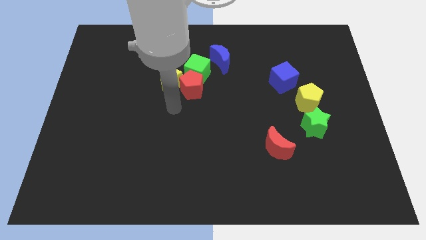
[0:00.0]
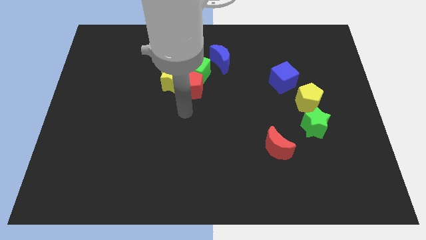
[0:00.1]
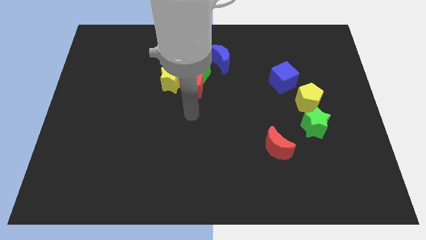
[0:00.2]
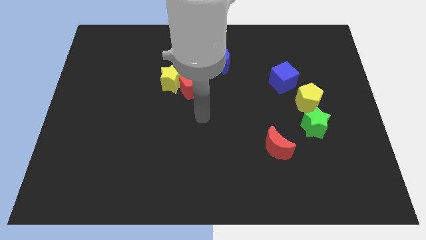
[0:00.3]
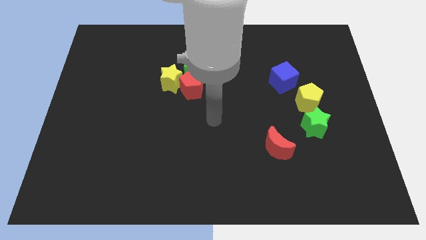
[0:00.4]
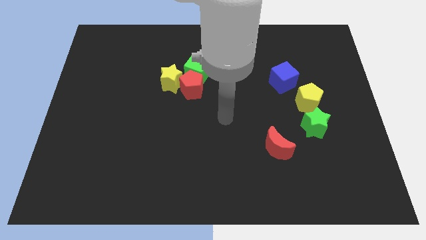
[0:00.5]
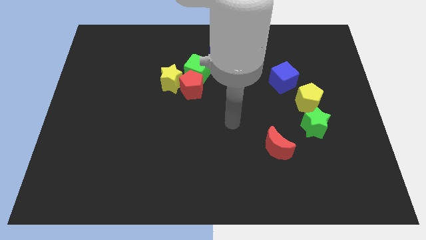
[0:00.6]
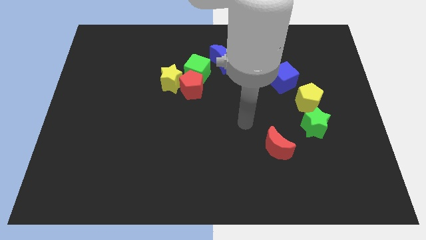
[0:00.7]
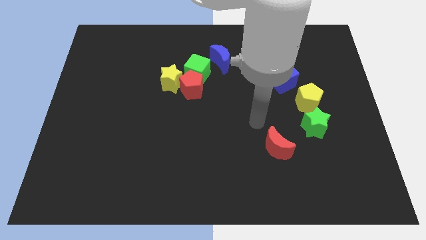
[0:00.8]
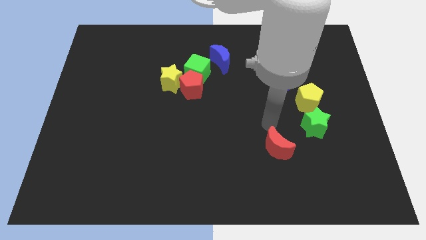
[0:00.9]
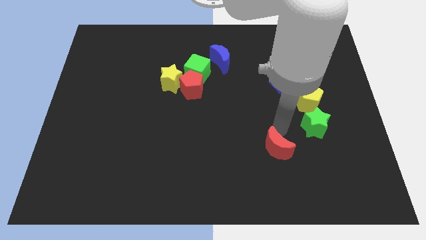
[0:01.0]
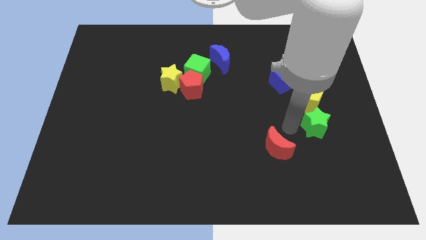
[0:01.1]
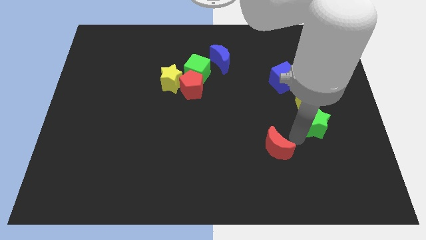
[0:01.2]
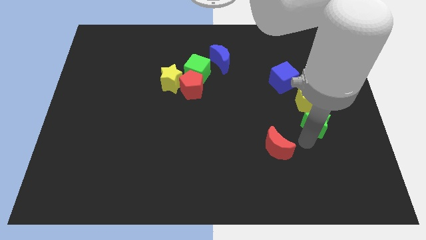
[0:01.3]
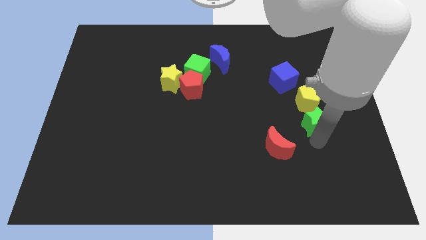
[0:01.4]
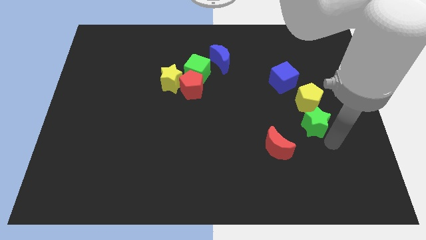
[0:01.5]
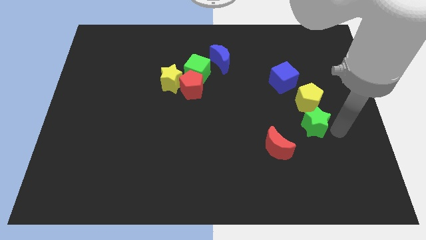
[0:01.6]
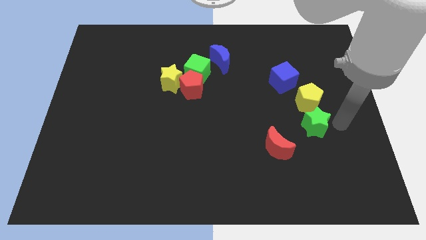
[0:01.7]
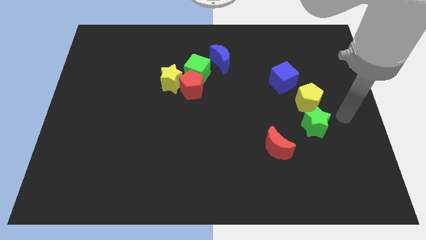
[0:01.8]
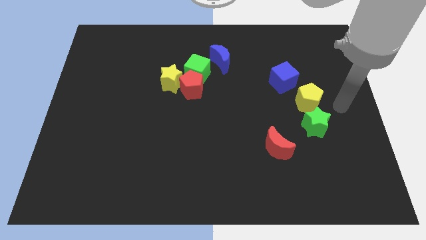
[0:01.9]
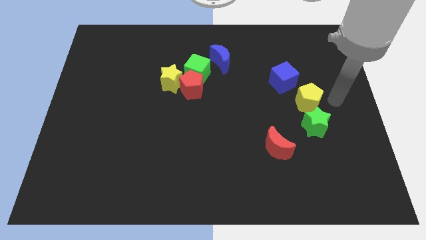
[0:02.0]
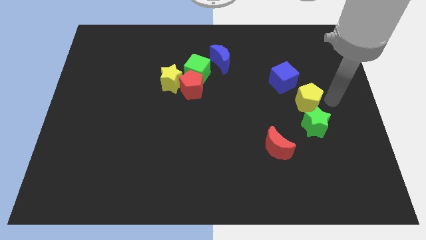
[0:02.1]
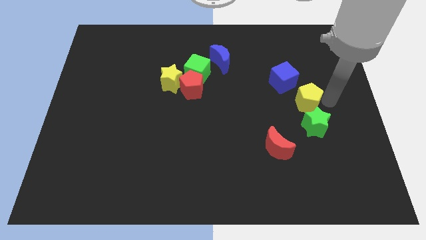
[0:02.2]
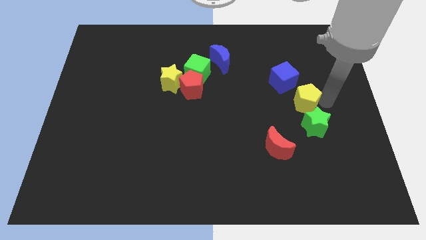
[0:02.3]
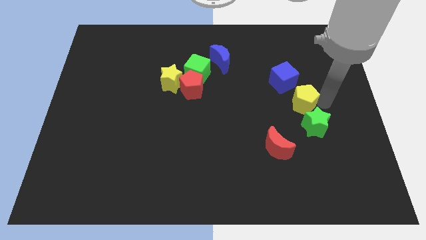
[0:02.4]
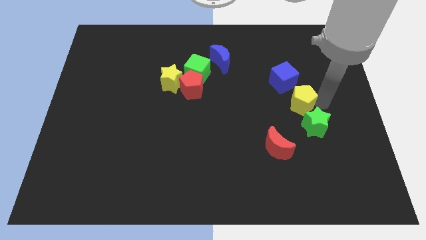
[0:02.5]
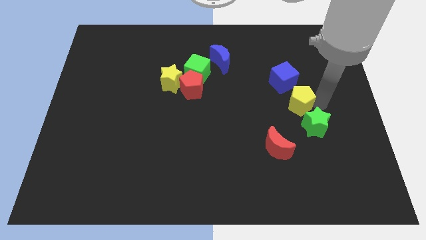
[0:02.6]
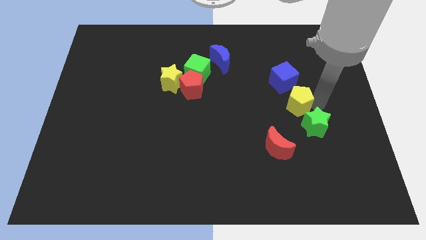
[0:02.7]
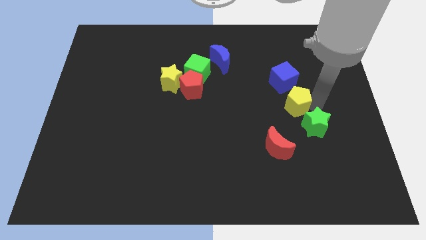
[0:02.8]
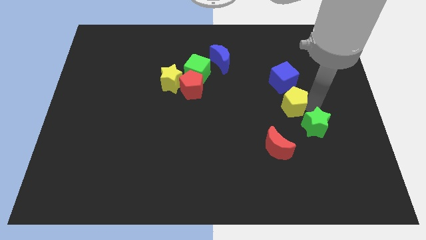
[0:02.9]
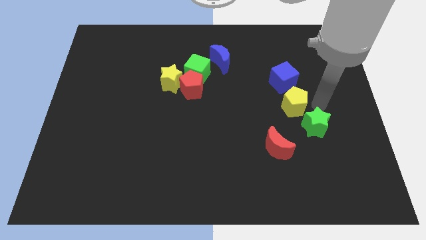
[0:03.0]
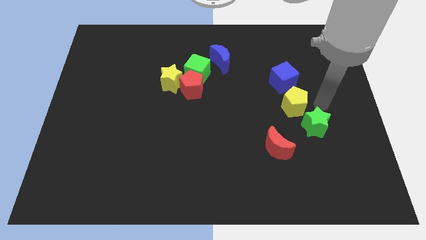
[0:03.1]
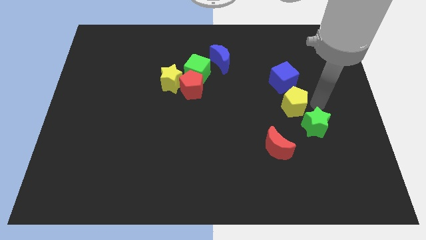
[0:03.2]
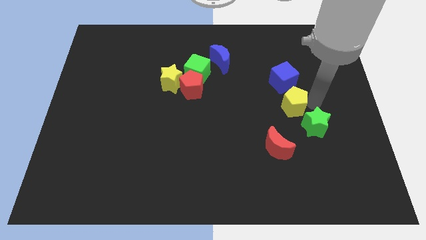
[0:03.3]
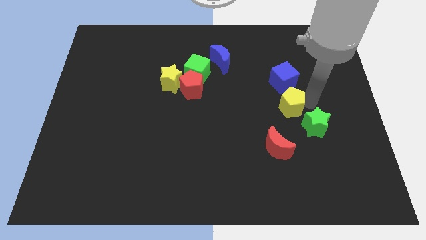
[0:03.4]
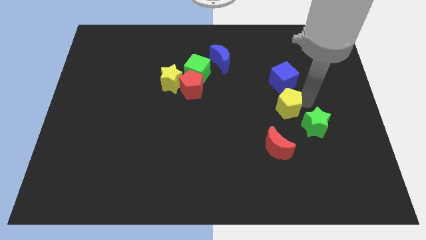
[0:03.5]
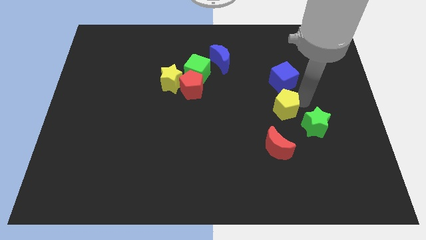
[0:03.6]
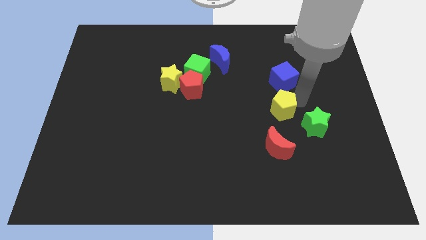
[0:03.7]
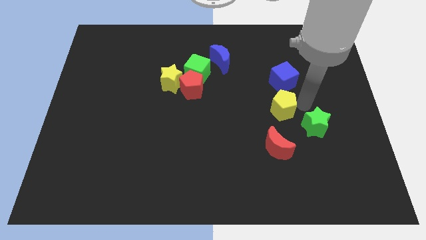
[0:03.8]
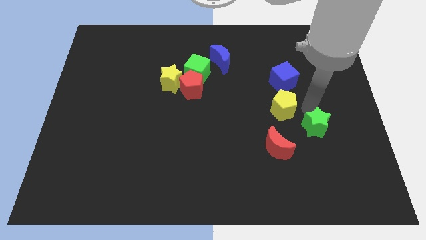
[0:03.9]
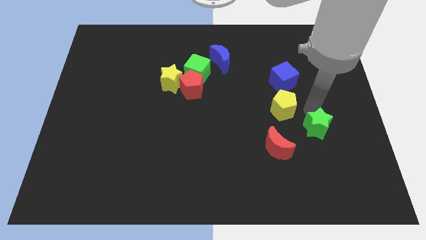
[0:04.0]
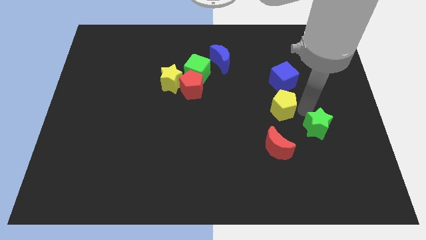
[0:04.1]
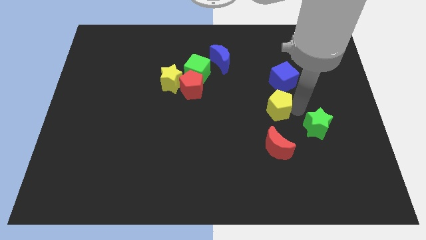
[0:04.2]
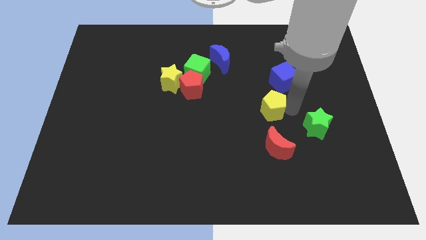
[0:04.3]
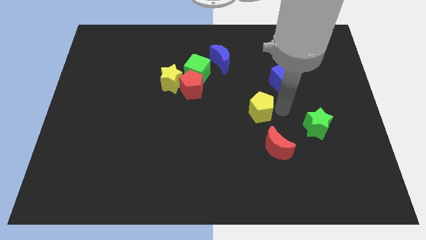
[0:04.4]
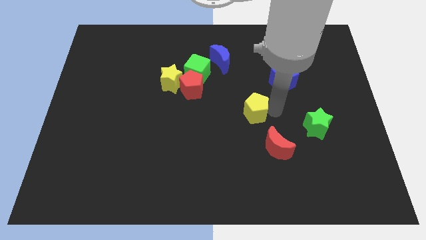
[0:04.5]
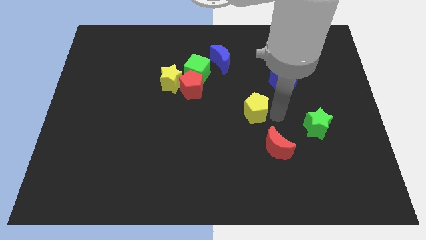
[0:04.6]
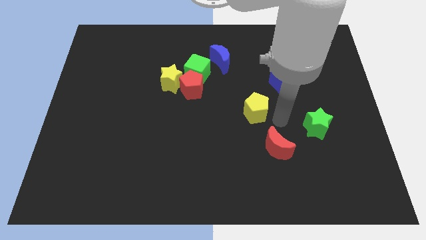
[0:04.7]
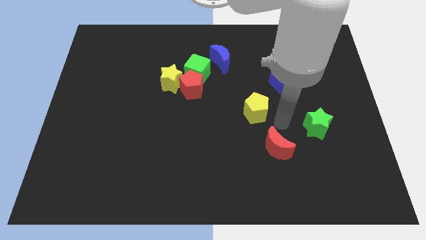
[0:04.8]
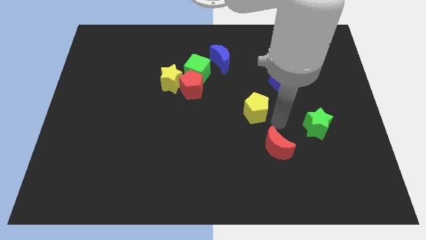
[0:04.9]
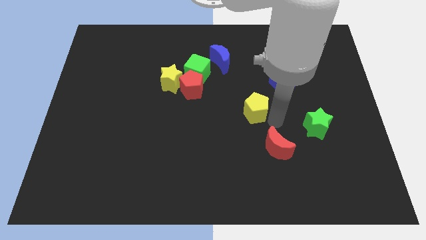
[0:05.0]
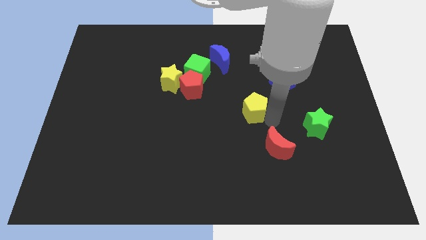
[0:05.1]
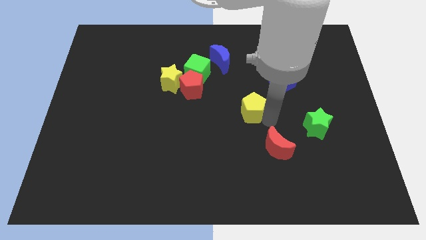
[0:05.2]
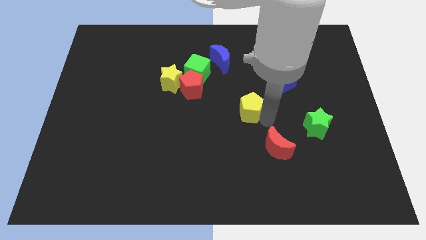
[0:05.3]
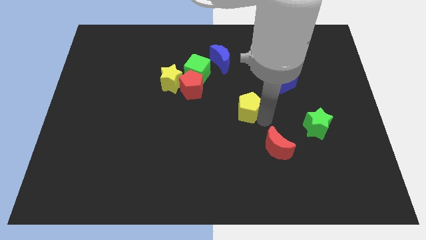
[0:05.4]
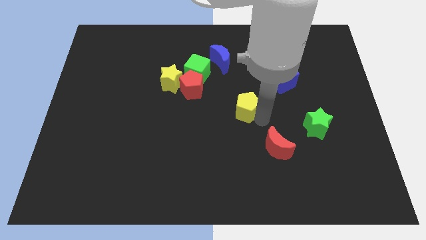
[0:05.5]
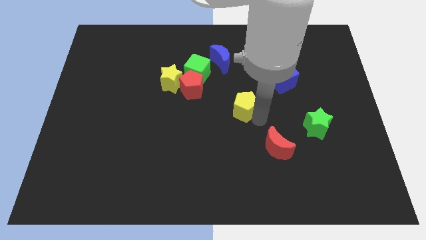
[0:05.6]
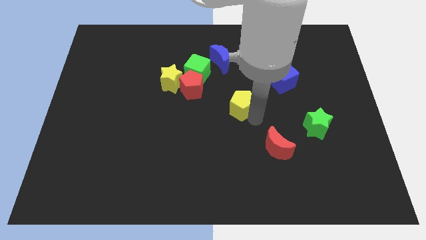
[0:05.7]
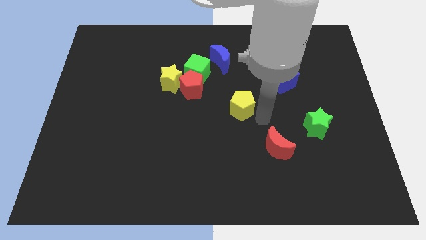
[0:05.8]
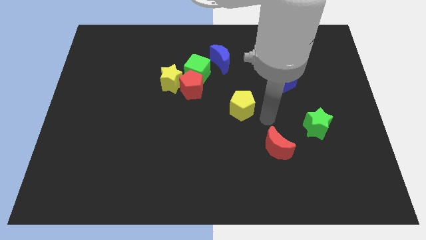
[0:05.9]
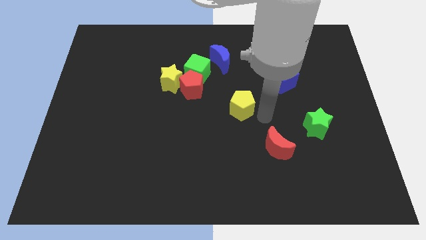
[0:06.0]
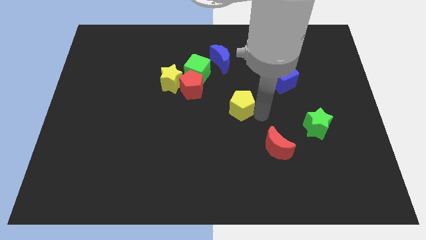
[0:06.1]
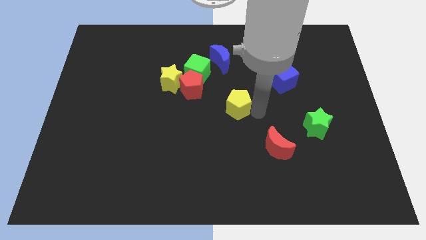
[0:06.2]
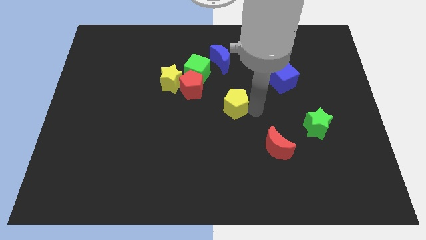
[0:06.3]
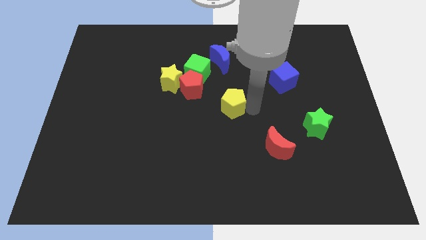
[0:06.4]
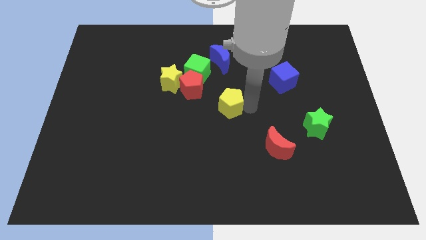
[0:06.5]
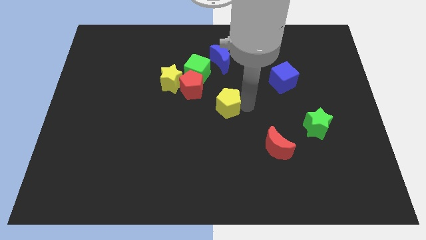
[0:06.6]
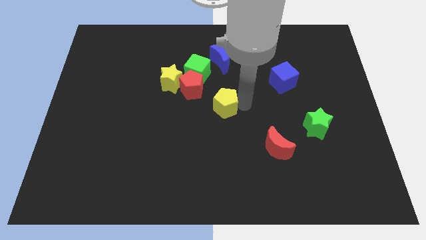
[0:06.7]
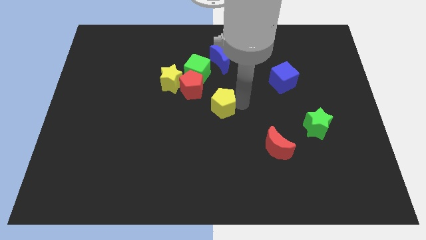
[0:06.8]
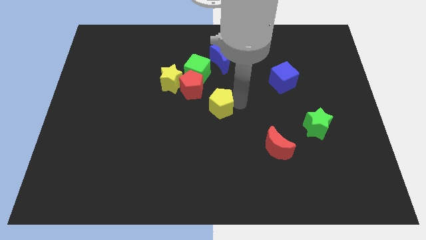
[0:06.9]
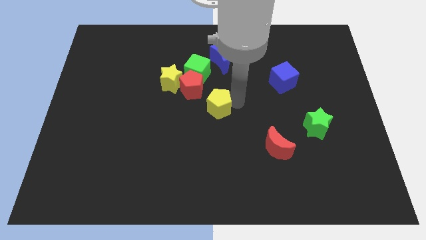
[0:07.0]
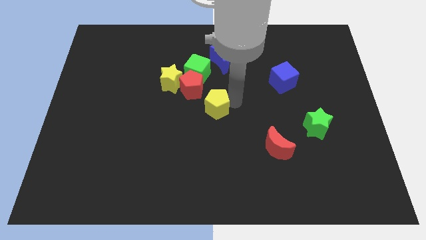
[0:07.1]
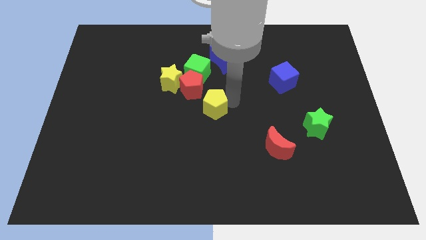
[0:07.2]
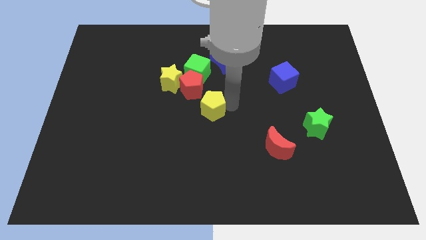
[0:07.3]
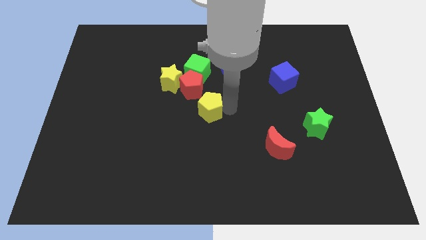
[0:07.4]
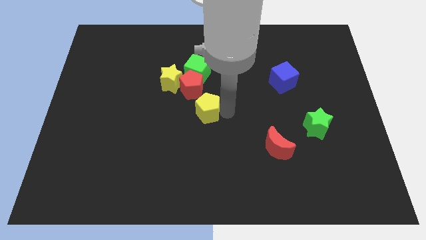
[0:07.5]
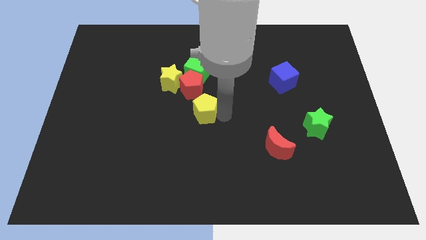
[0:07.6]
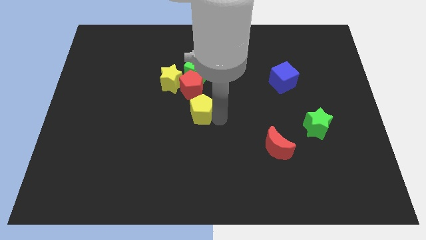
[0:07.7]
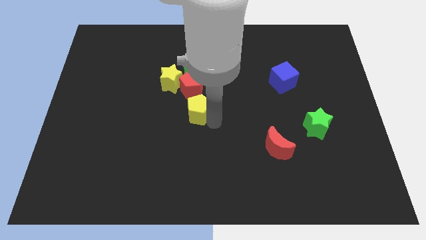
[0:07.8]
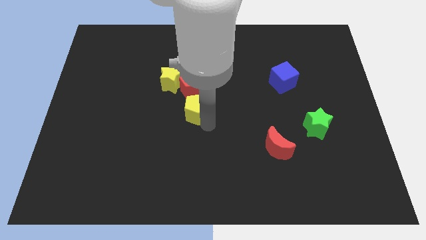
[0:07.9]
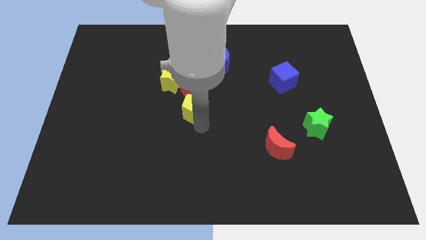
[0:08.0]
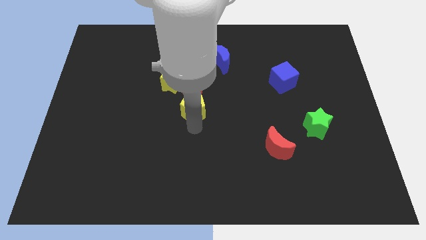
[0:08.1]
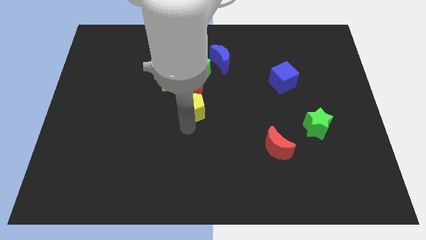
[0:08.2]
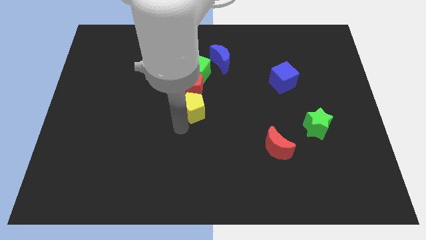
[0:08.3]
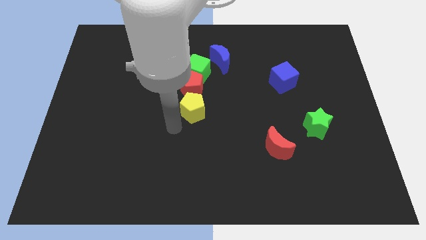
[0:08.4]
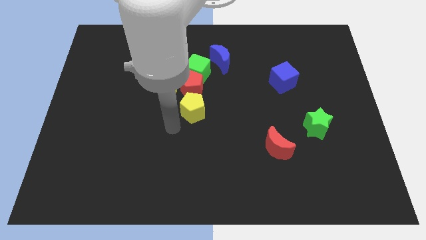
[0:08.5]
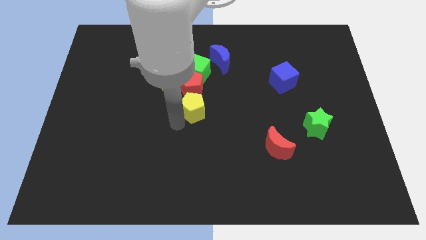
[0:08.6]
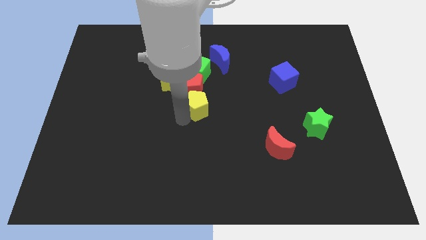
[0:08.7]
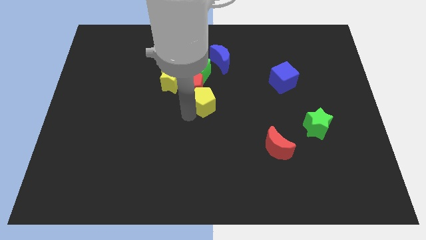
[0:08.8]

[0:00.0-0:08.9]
move the yellow pentagon next to the red pentagon
